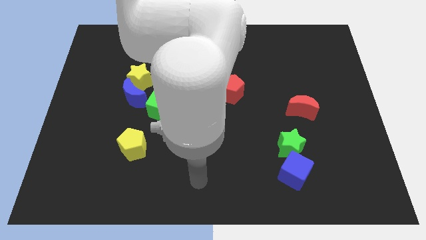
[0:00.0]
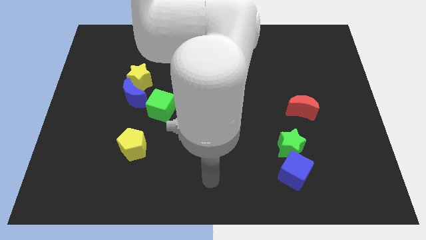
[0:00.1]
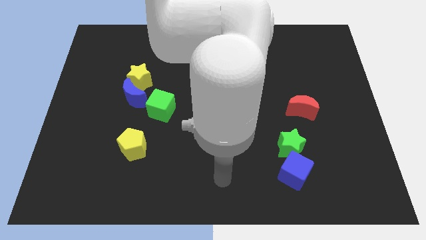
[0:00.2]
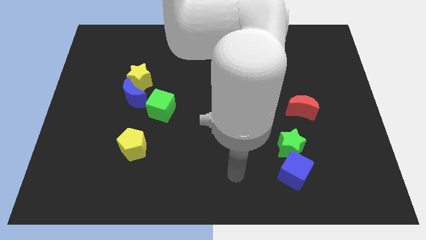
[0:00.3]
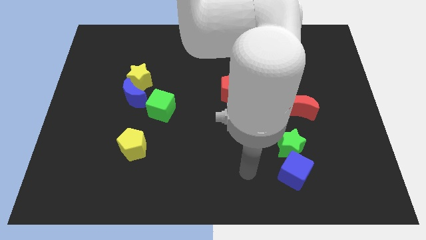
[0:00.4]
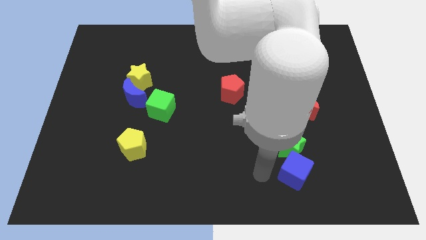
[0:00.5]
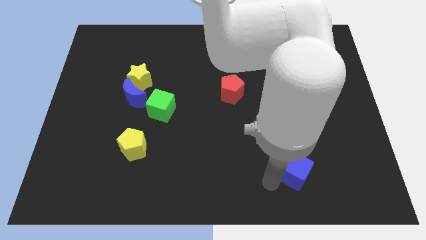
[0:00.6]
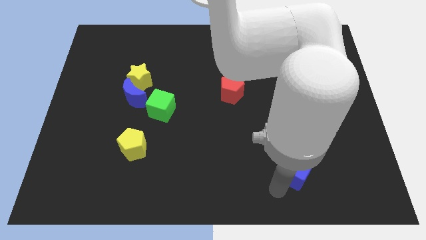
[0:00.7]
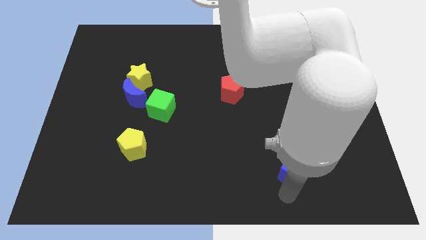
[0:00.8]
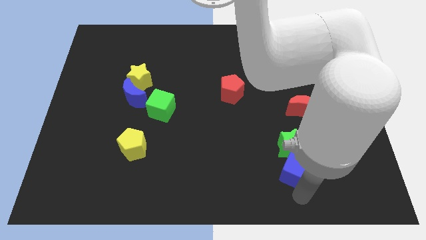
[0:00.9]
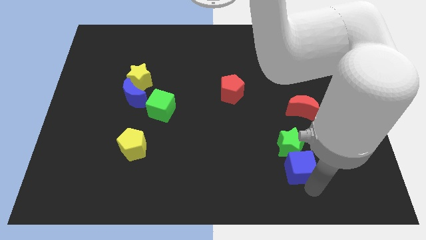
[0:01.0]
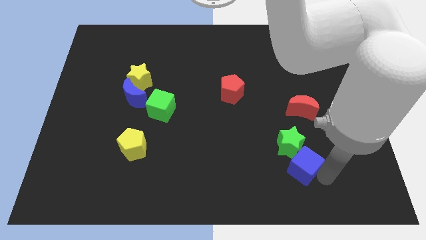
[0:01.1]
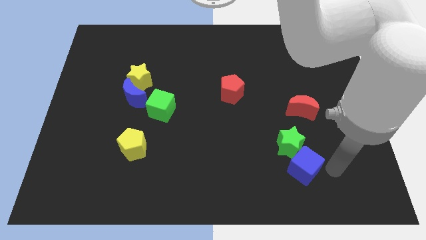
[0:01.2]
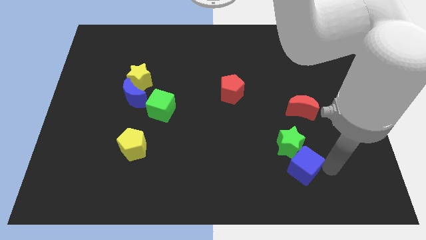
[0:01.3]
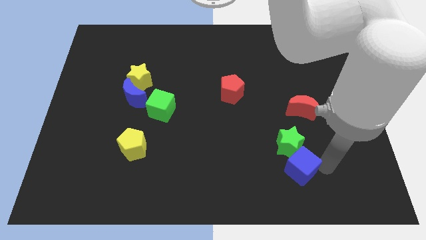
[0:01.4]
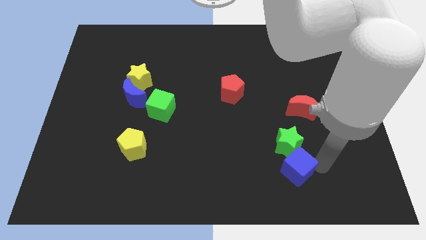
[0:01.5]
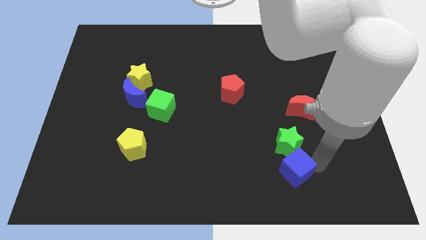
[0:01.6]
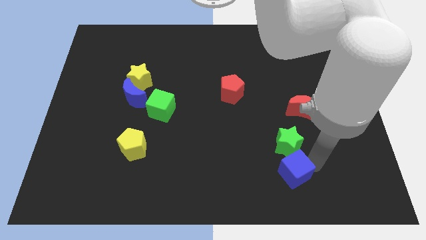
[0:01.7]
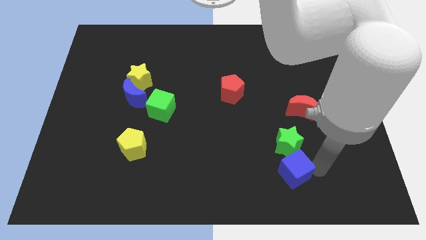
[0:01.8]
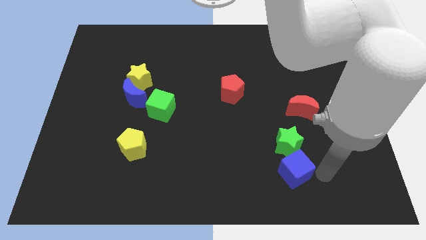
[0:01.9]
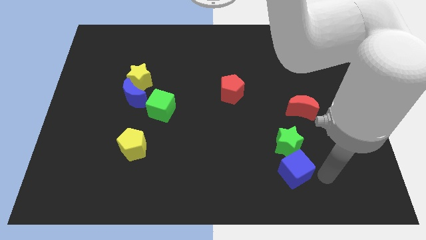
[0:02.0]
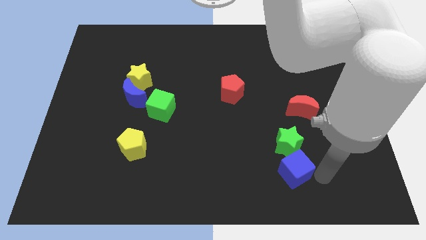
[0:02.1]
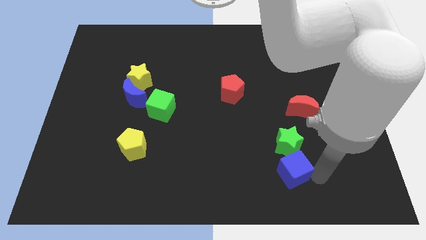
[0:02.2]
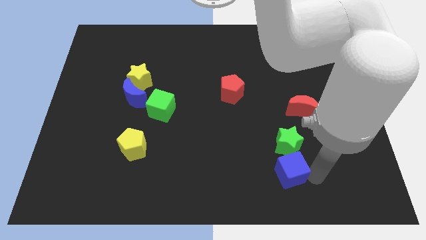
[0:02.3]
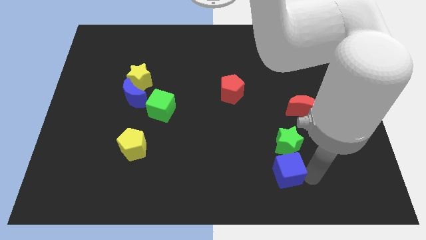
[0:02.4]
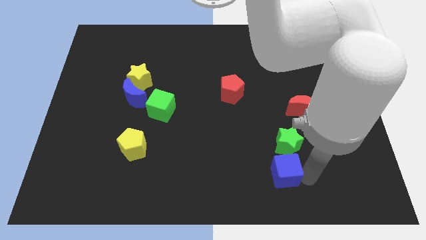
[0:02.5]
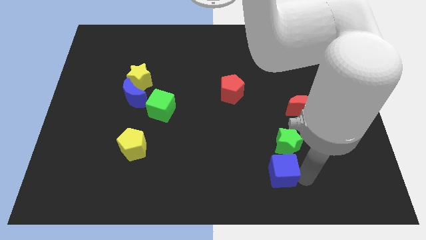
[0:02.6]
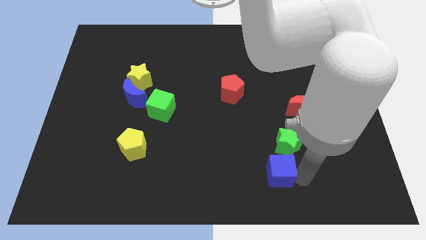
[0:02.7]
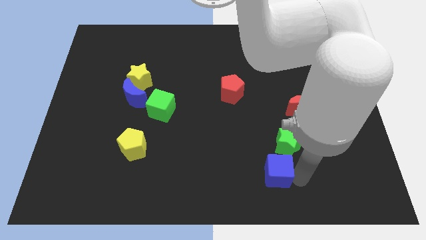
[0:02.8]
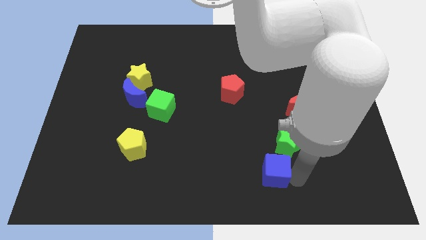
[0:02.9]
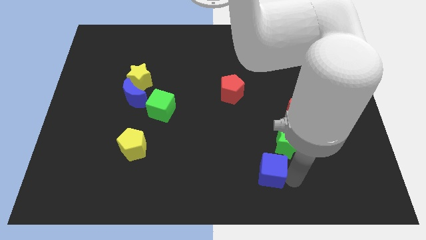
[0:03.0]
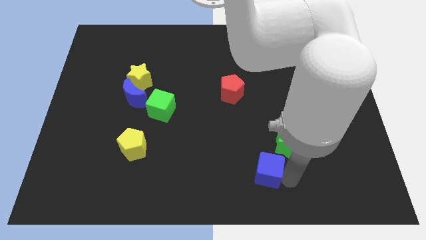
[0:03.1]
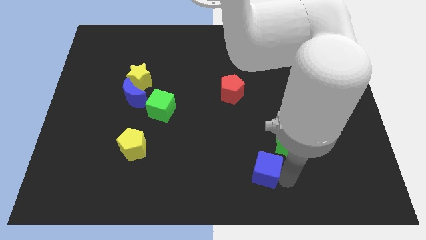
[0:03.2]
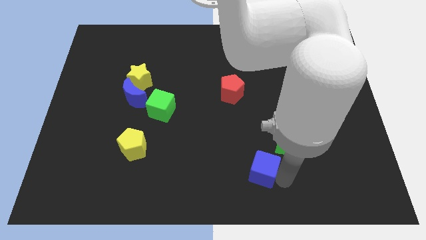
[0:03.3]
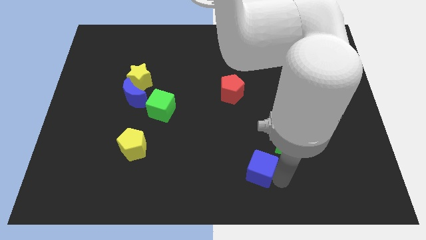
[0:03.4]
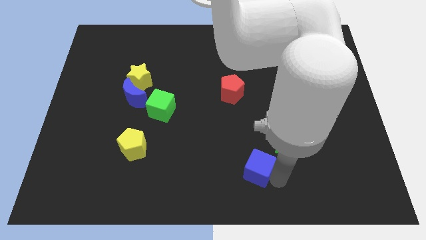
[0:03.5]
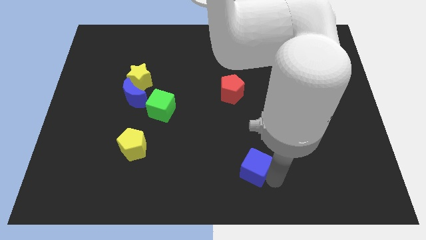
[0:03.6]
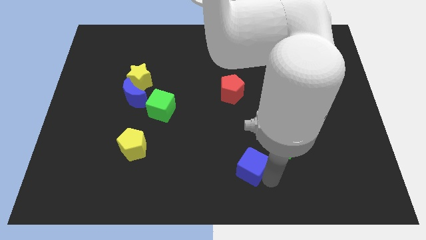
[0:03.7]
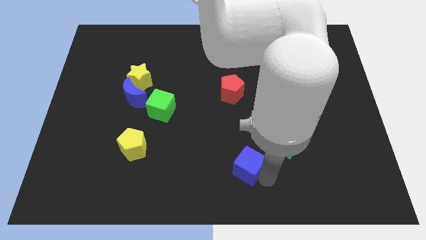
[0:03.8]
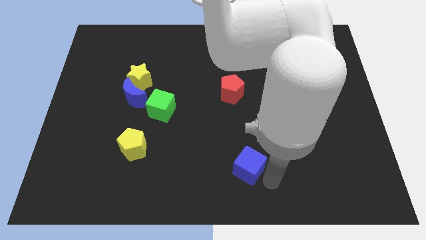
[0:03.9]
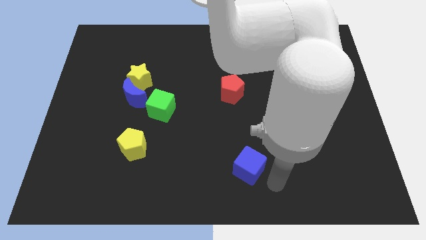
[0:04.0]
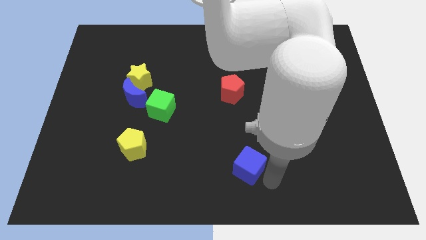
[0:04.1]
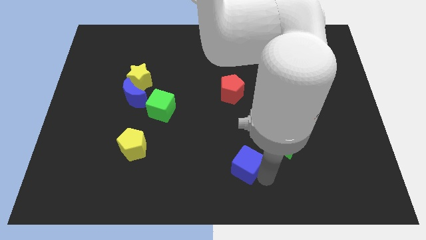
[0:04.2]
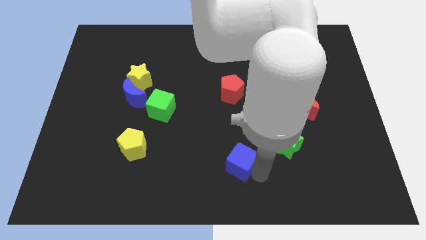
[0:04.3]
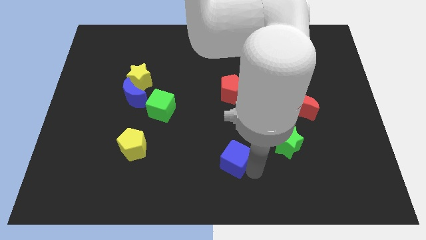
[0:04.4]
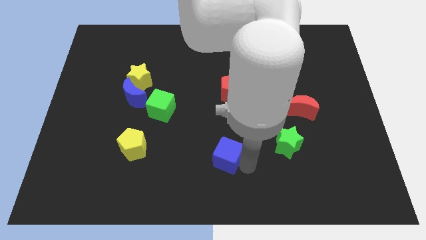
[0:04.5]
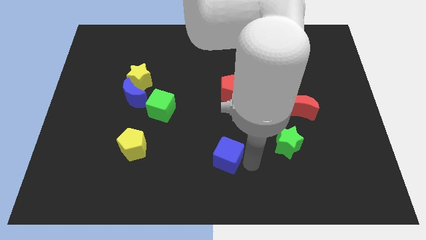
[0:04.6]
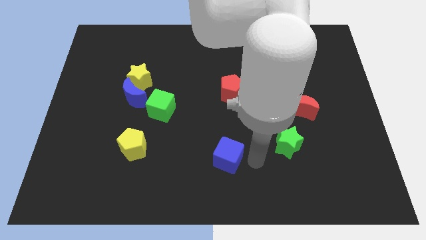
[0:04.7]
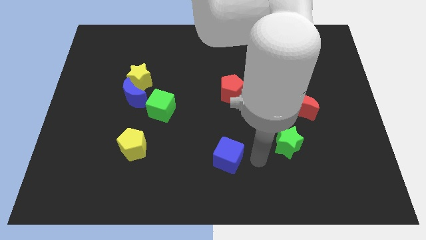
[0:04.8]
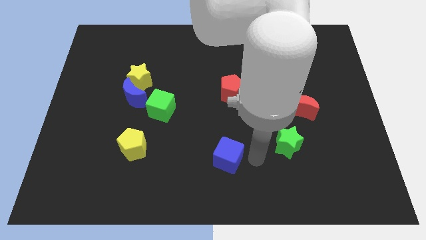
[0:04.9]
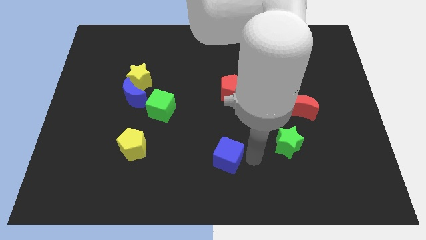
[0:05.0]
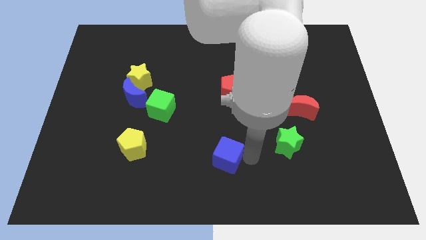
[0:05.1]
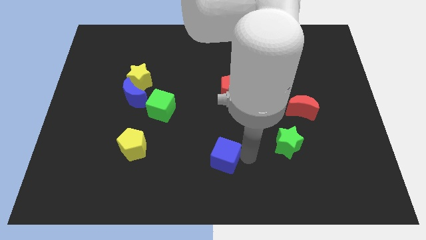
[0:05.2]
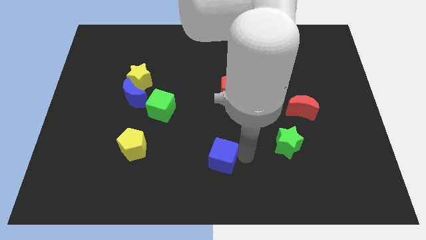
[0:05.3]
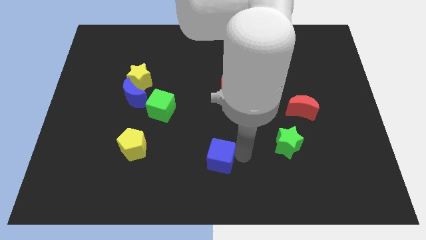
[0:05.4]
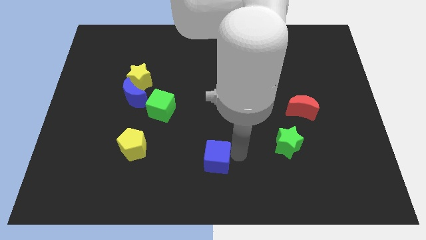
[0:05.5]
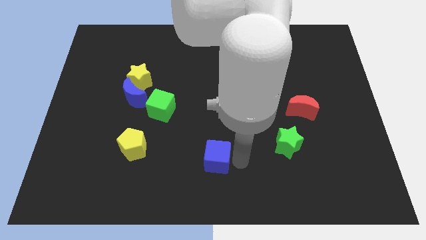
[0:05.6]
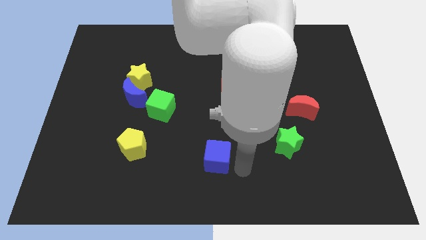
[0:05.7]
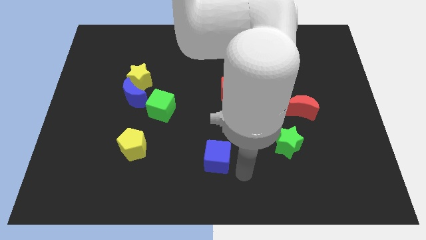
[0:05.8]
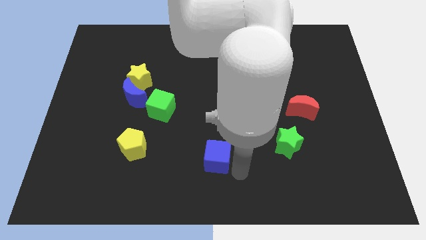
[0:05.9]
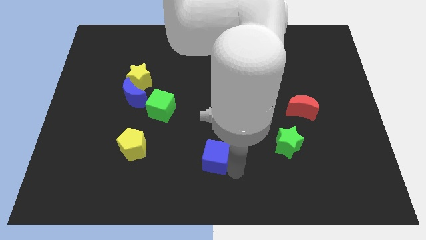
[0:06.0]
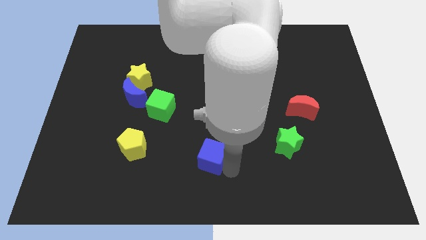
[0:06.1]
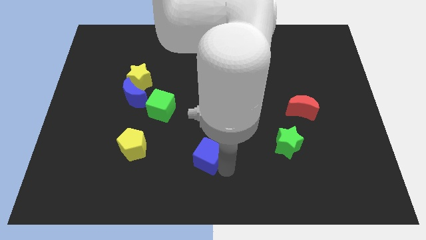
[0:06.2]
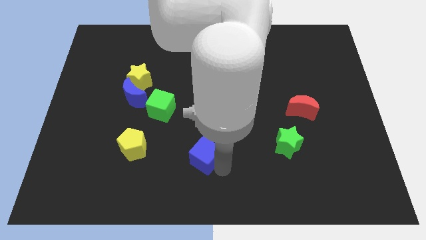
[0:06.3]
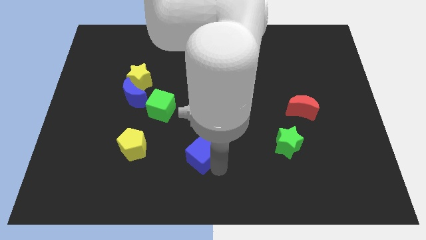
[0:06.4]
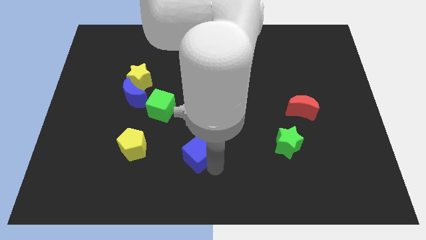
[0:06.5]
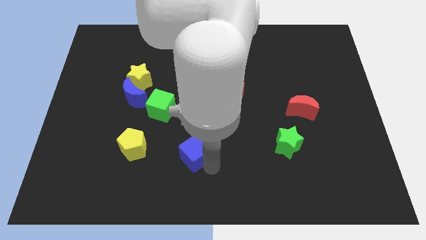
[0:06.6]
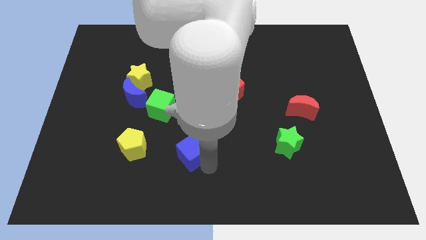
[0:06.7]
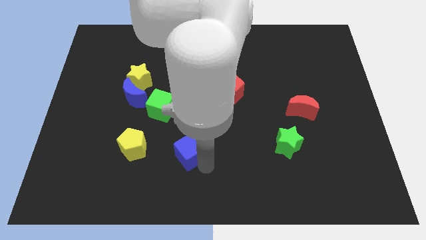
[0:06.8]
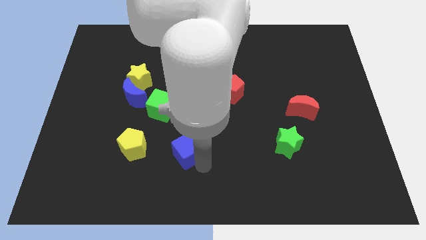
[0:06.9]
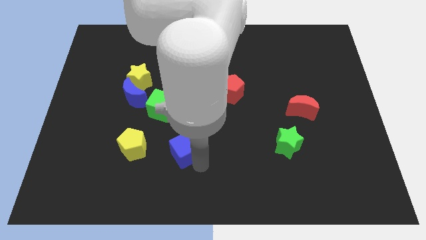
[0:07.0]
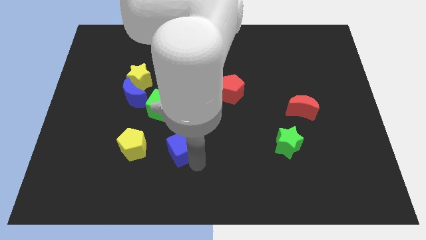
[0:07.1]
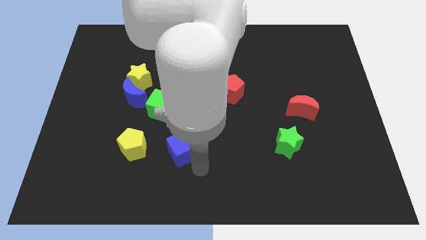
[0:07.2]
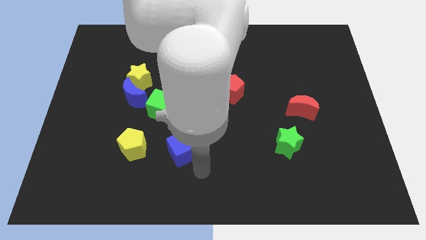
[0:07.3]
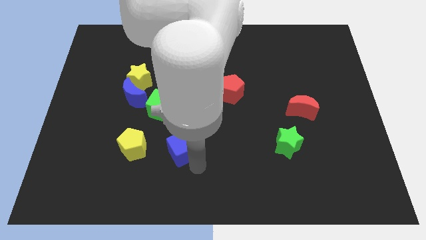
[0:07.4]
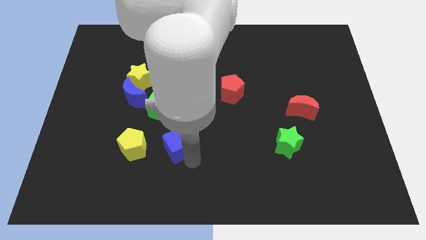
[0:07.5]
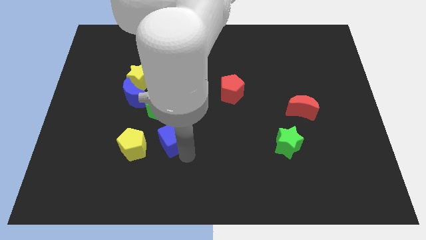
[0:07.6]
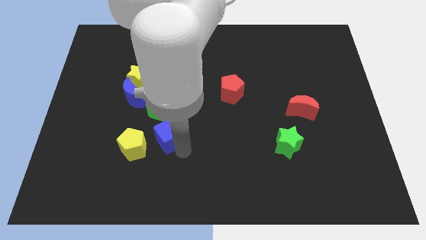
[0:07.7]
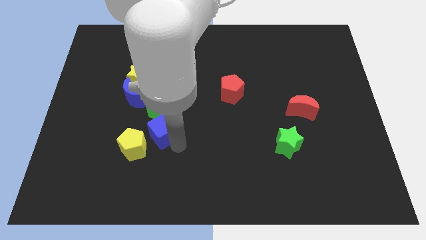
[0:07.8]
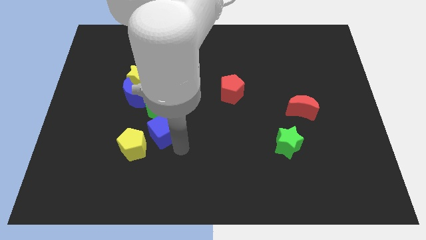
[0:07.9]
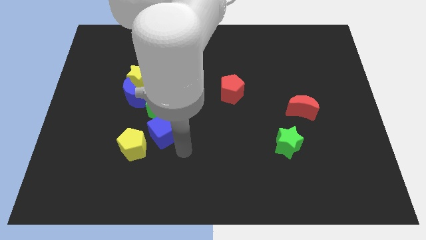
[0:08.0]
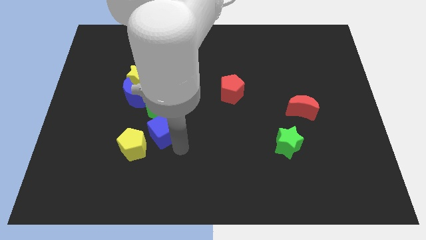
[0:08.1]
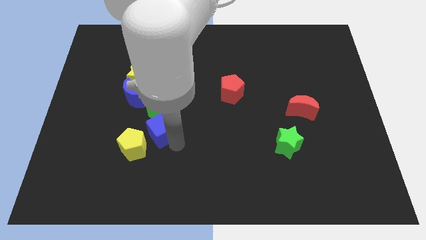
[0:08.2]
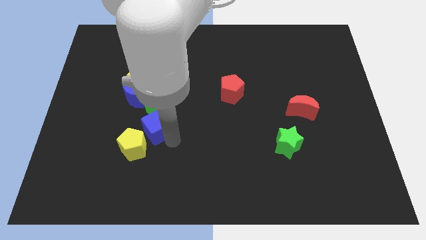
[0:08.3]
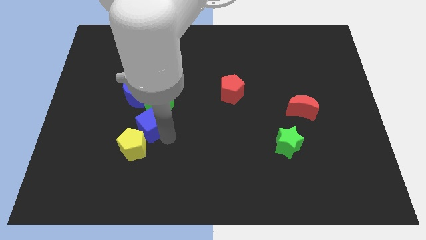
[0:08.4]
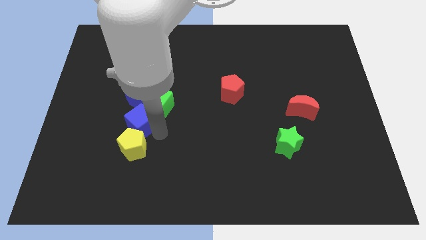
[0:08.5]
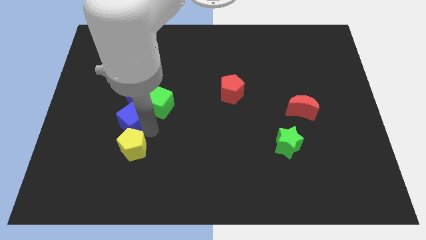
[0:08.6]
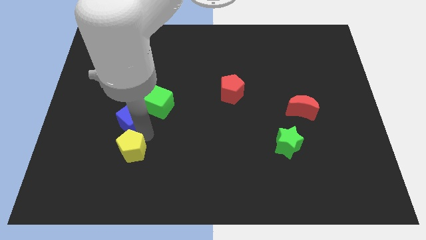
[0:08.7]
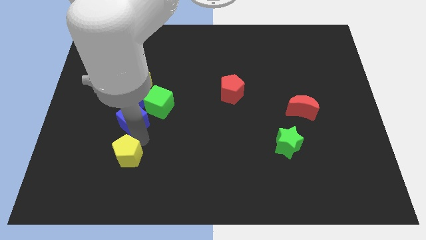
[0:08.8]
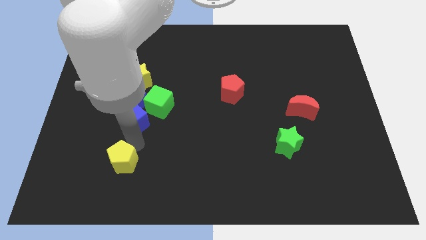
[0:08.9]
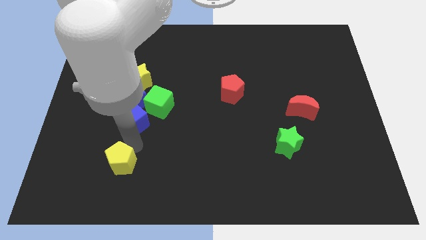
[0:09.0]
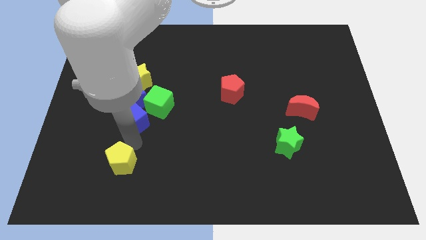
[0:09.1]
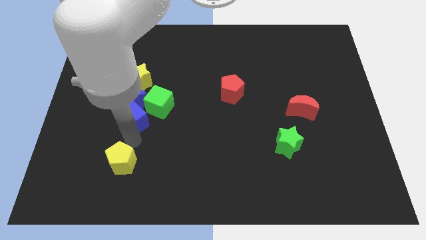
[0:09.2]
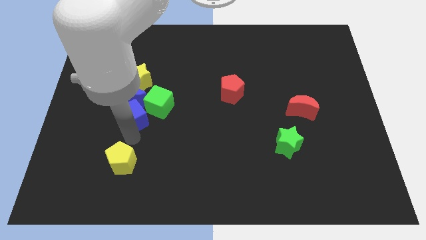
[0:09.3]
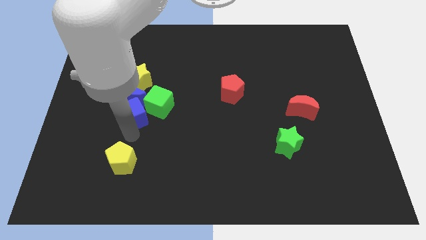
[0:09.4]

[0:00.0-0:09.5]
put the blue cube to the blue moon
